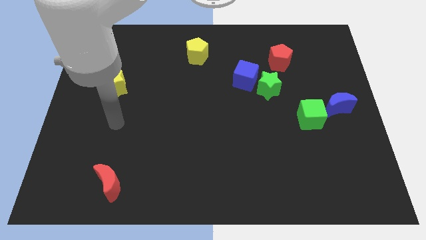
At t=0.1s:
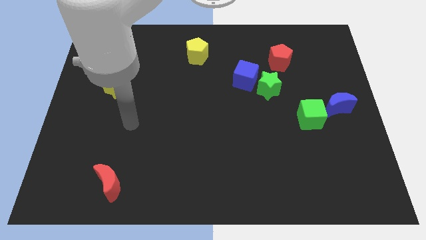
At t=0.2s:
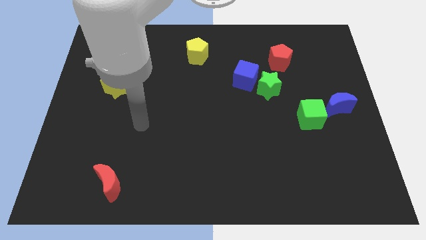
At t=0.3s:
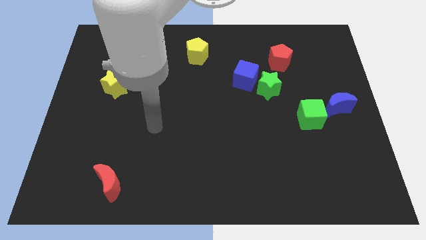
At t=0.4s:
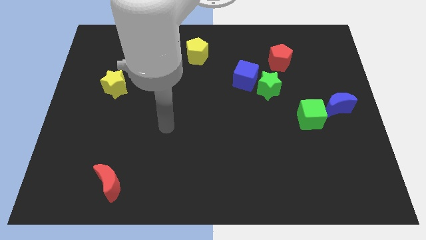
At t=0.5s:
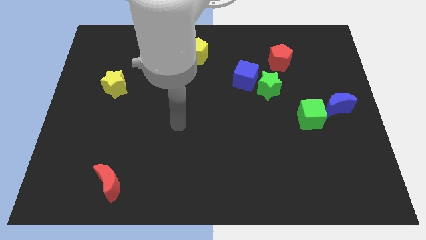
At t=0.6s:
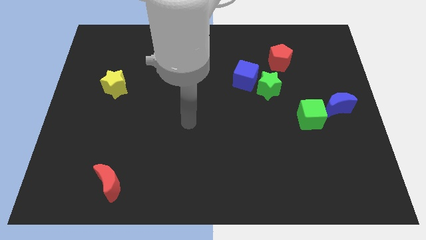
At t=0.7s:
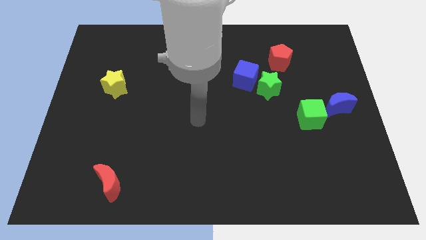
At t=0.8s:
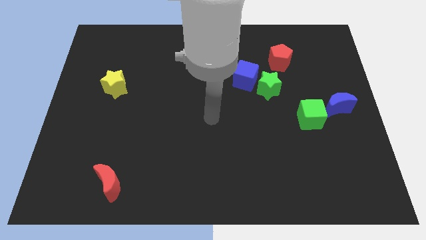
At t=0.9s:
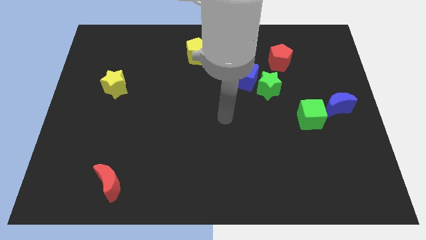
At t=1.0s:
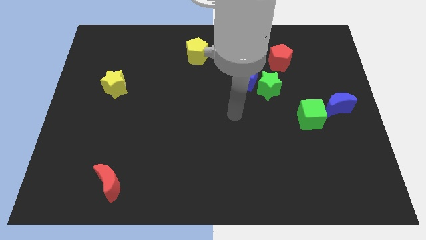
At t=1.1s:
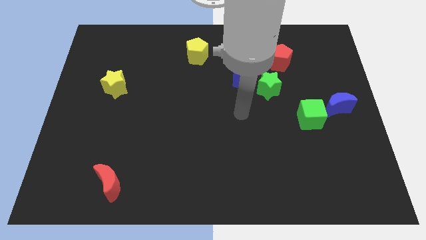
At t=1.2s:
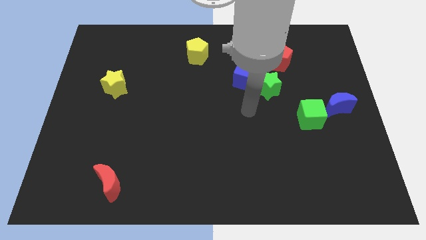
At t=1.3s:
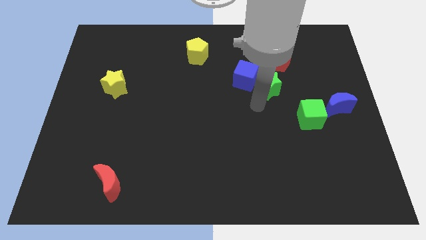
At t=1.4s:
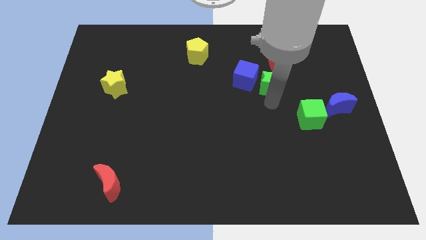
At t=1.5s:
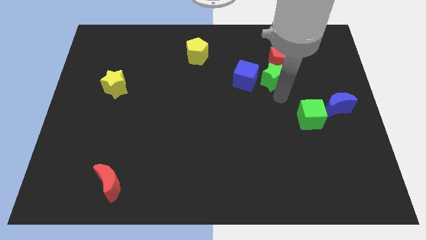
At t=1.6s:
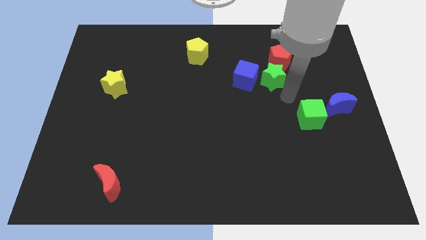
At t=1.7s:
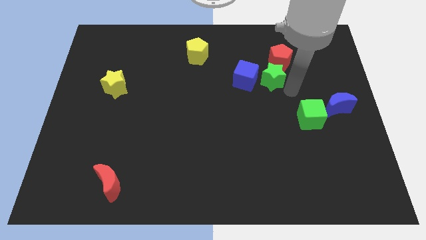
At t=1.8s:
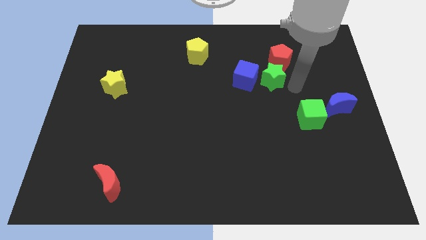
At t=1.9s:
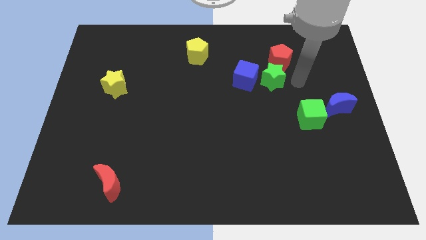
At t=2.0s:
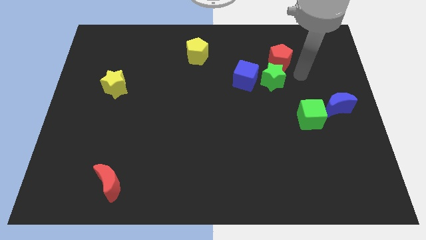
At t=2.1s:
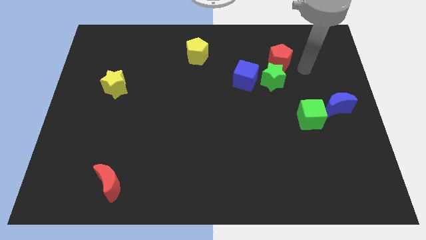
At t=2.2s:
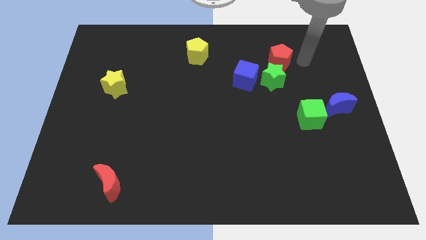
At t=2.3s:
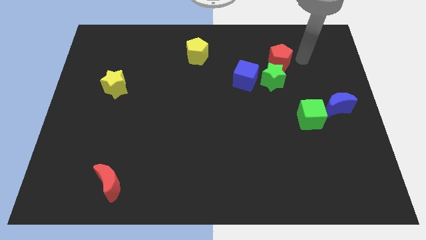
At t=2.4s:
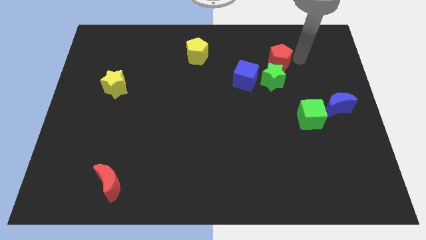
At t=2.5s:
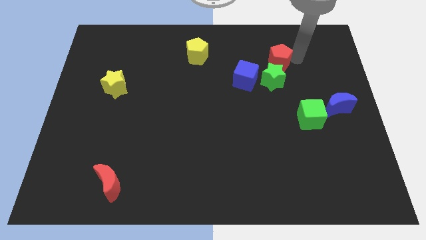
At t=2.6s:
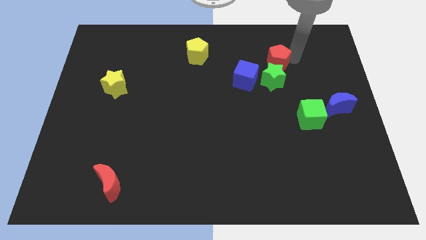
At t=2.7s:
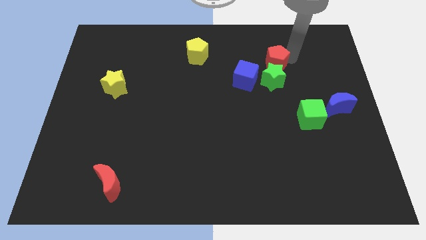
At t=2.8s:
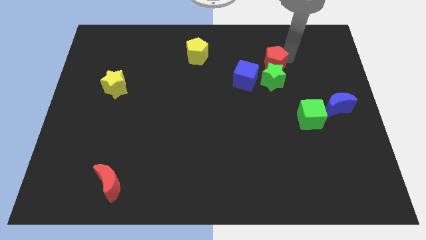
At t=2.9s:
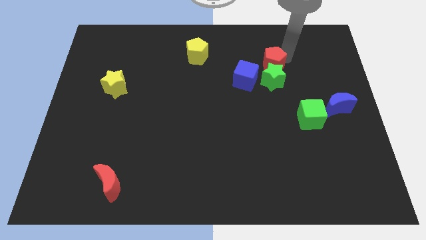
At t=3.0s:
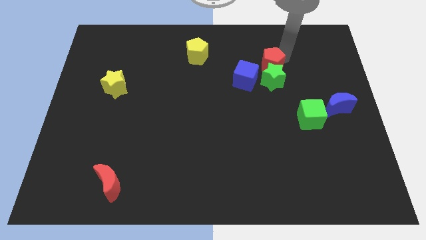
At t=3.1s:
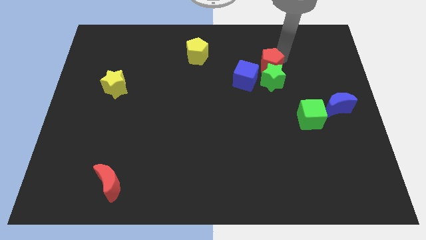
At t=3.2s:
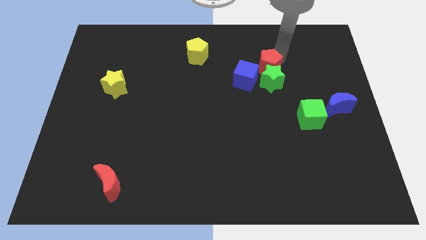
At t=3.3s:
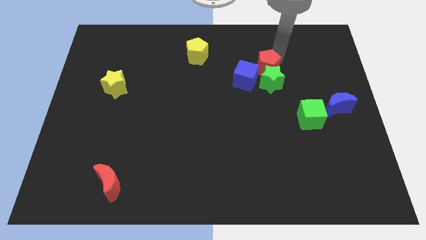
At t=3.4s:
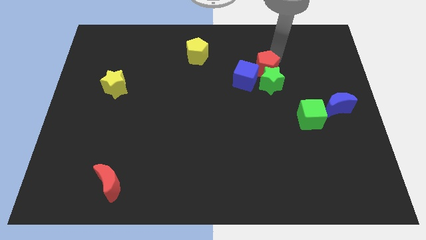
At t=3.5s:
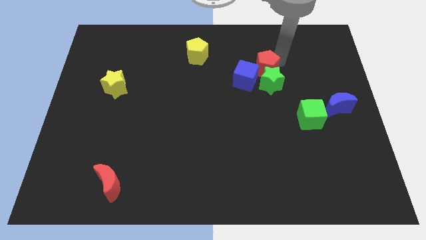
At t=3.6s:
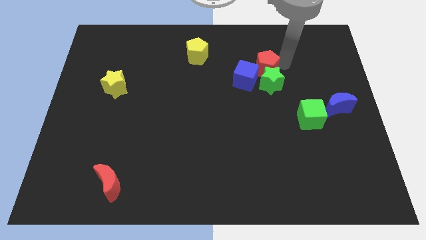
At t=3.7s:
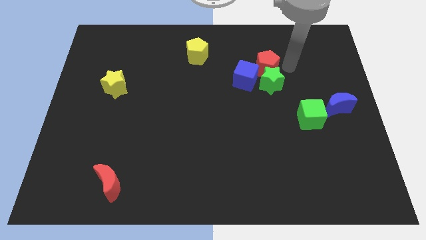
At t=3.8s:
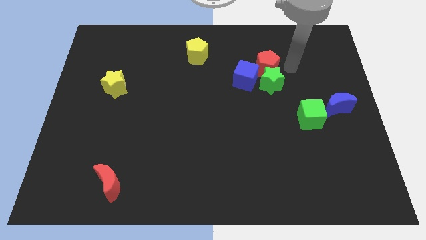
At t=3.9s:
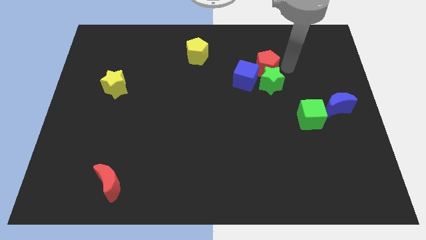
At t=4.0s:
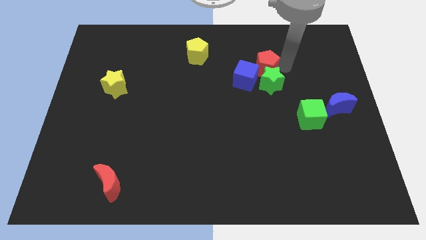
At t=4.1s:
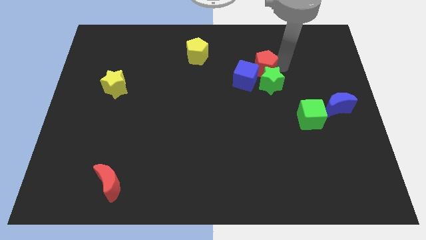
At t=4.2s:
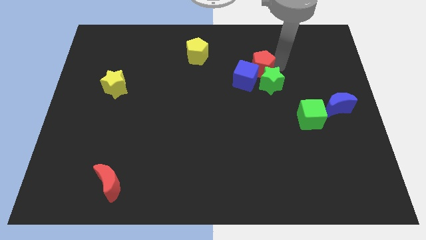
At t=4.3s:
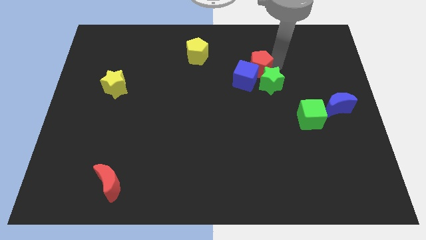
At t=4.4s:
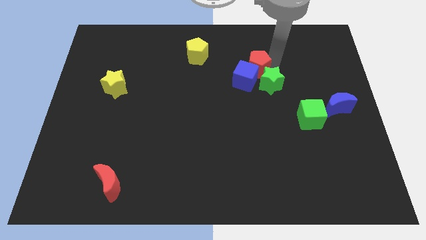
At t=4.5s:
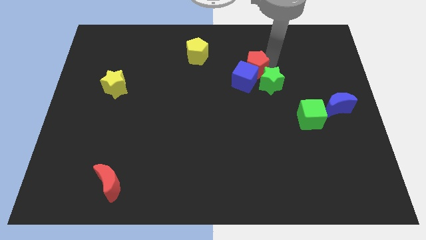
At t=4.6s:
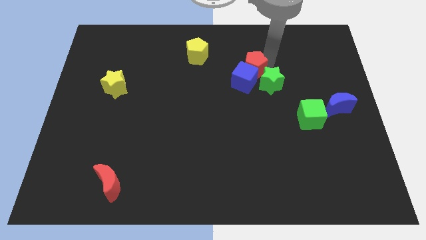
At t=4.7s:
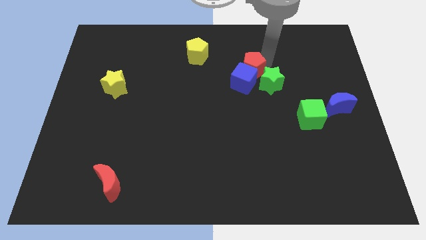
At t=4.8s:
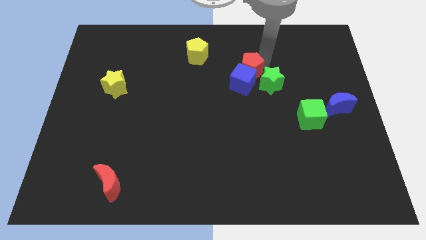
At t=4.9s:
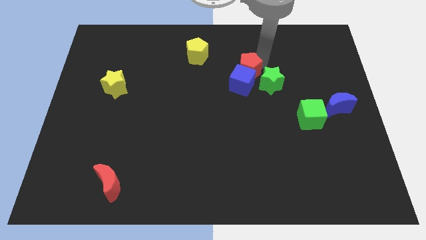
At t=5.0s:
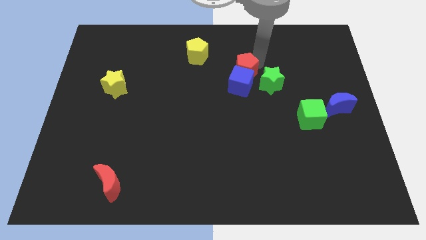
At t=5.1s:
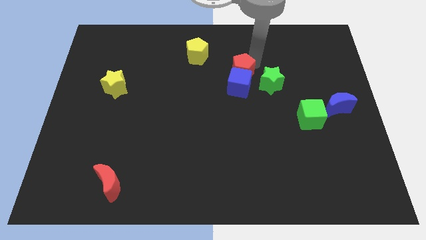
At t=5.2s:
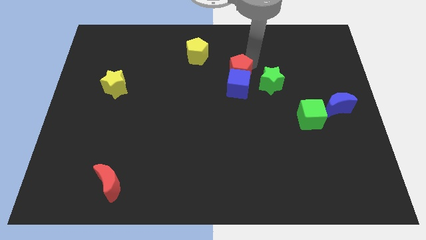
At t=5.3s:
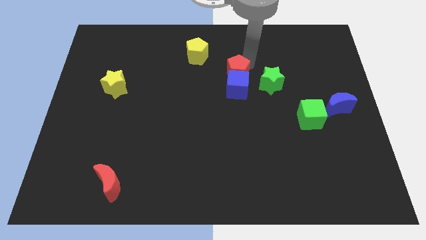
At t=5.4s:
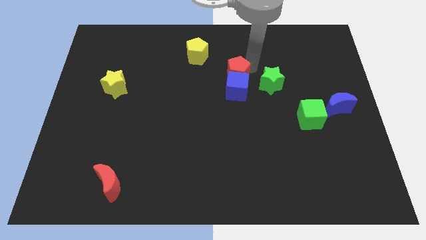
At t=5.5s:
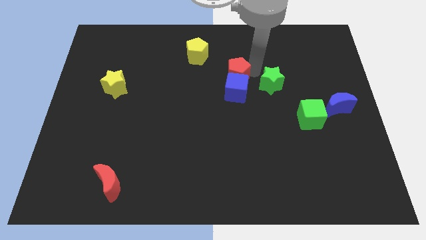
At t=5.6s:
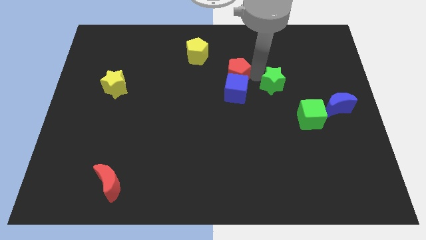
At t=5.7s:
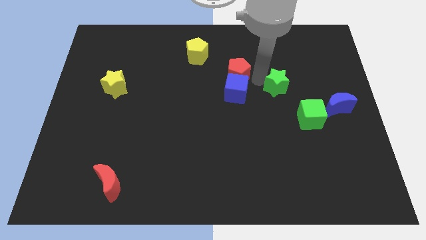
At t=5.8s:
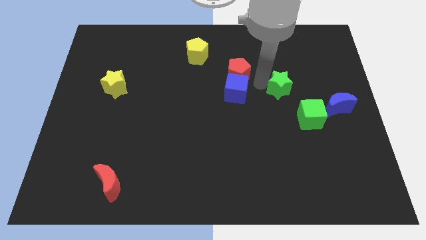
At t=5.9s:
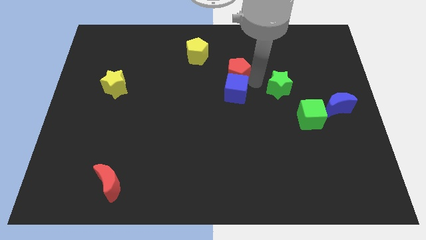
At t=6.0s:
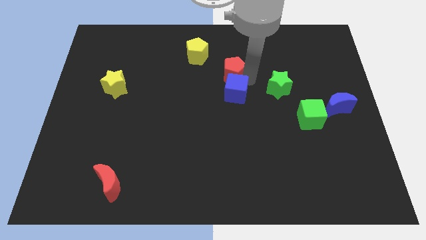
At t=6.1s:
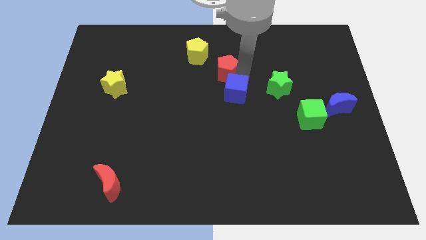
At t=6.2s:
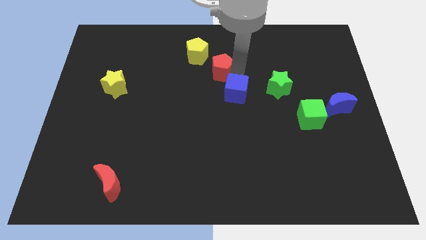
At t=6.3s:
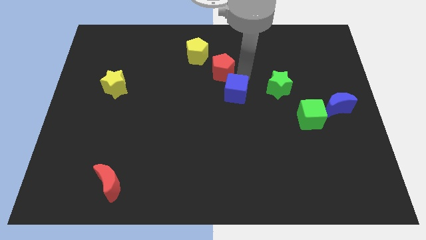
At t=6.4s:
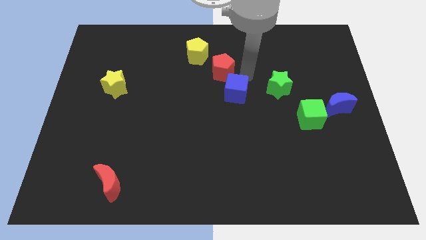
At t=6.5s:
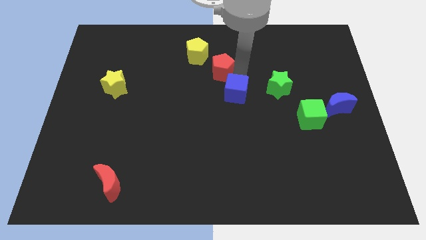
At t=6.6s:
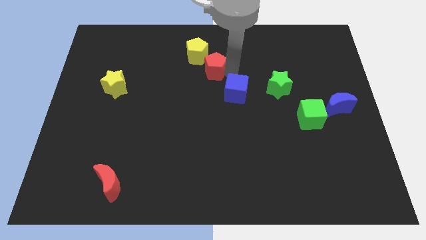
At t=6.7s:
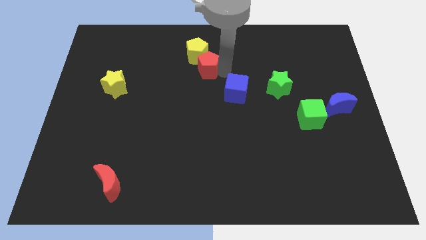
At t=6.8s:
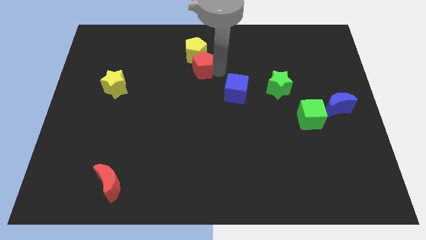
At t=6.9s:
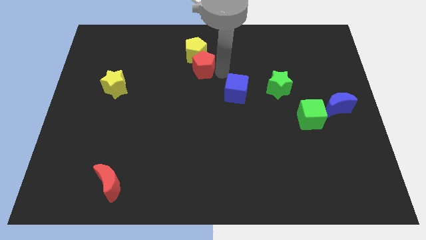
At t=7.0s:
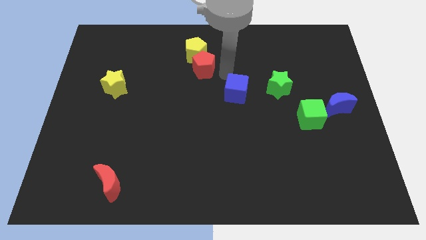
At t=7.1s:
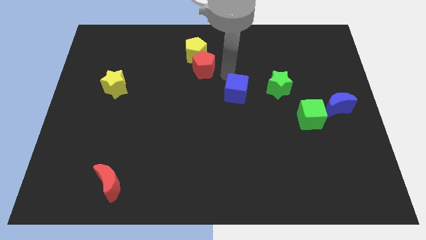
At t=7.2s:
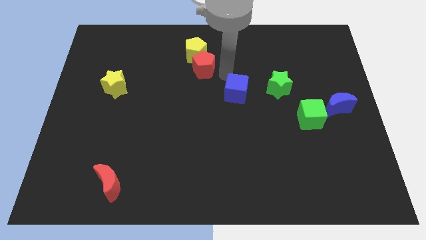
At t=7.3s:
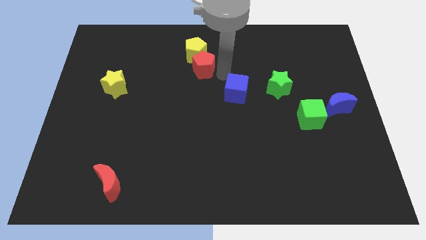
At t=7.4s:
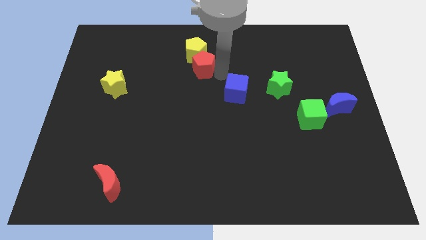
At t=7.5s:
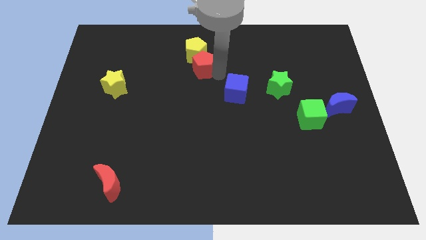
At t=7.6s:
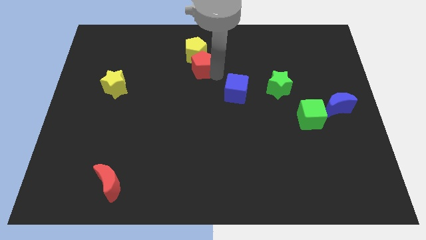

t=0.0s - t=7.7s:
push the red pentagon to the left

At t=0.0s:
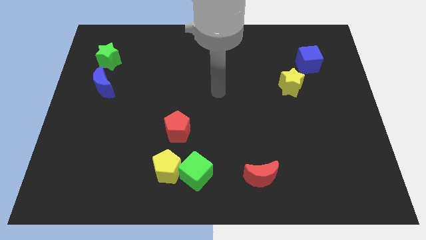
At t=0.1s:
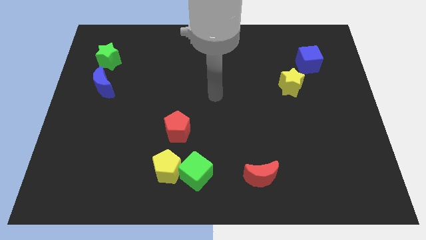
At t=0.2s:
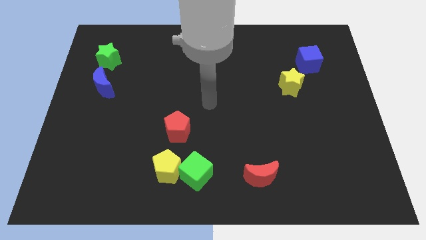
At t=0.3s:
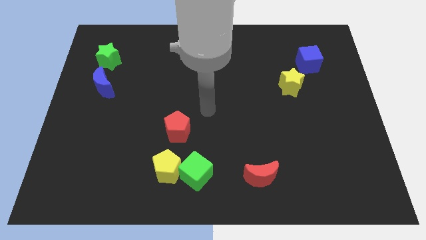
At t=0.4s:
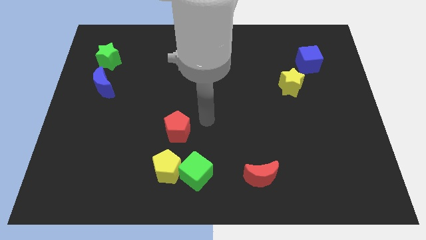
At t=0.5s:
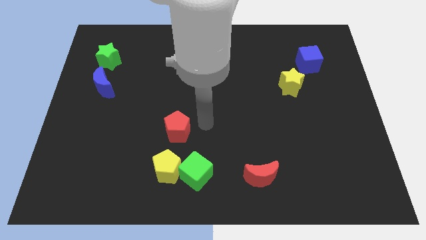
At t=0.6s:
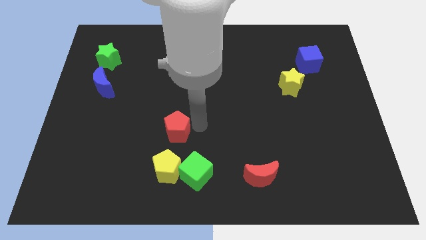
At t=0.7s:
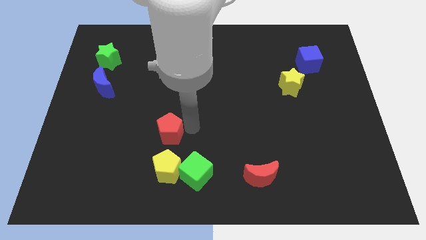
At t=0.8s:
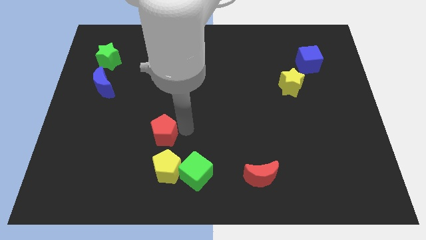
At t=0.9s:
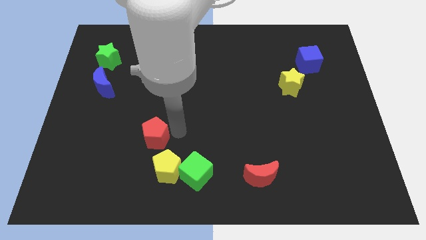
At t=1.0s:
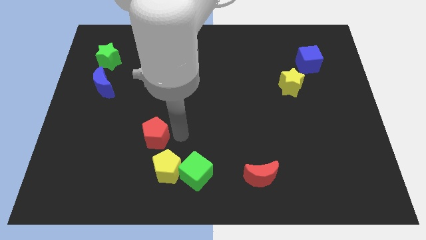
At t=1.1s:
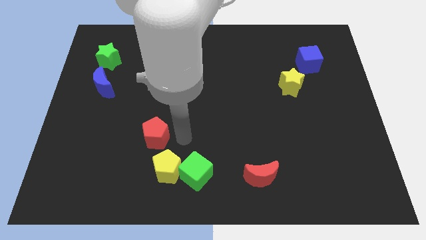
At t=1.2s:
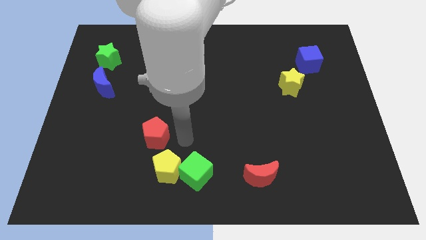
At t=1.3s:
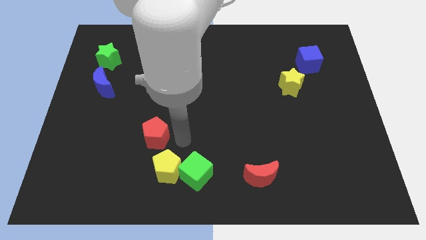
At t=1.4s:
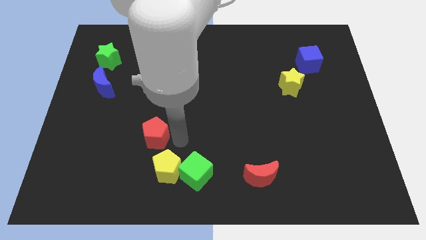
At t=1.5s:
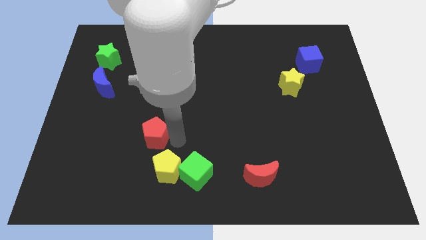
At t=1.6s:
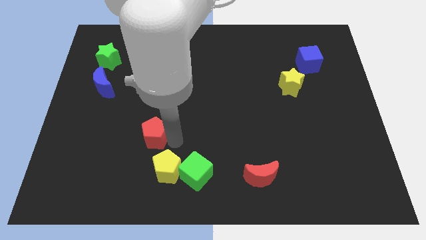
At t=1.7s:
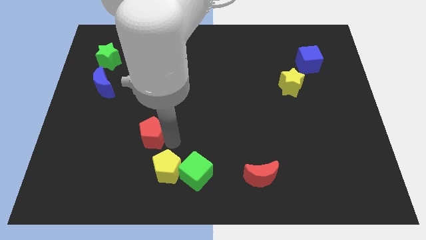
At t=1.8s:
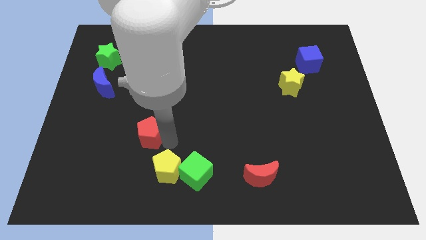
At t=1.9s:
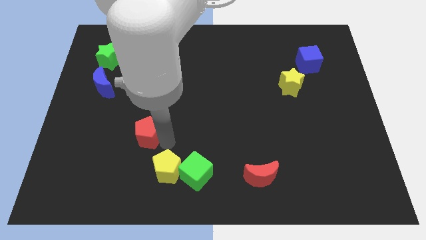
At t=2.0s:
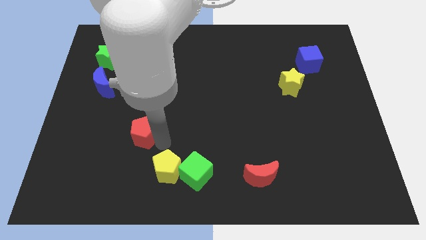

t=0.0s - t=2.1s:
slightly slide the red pentagon to the left
